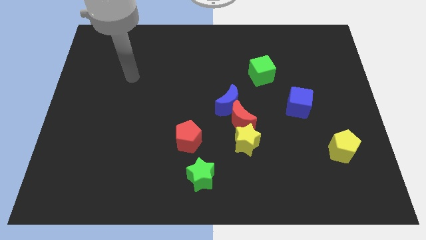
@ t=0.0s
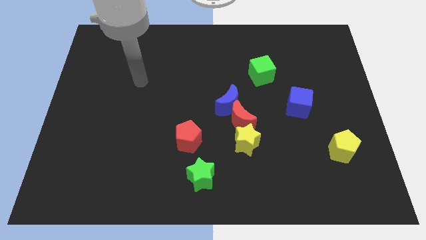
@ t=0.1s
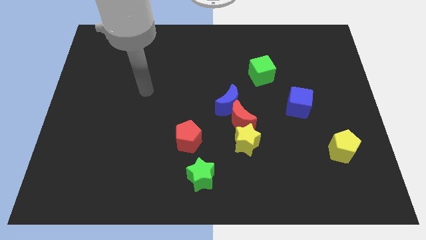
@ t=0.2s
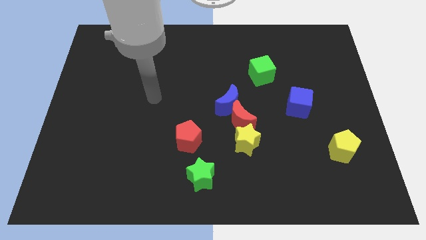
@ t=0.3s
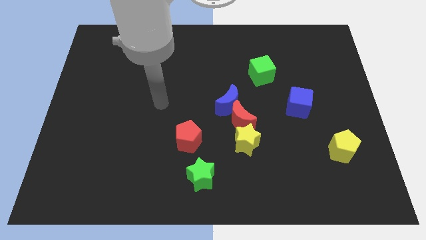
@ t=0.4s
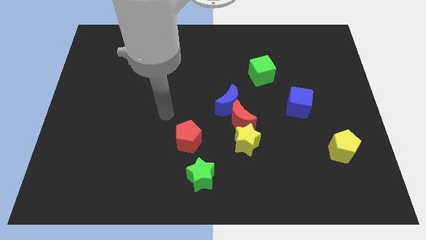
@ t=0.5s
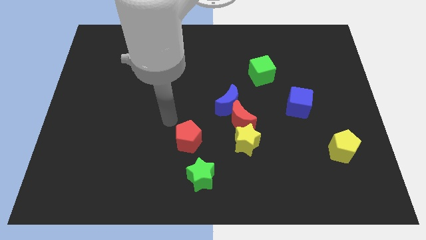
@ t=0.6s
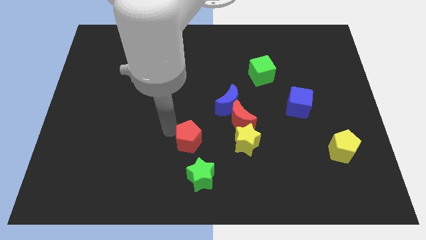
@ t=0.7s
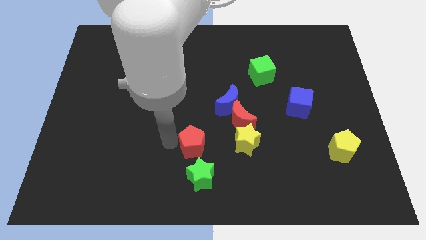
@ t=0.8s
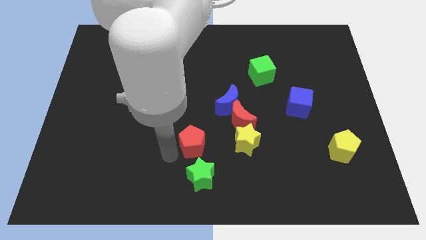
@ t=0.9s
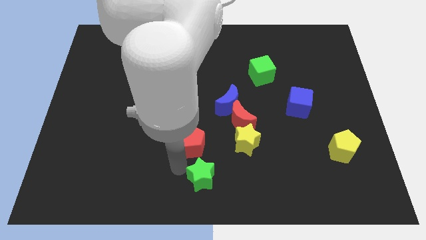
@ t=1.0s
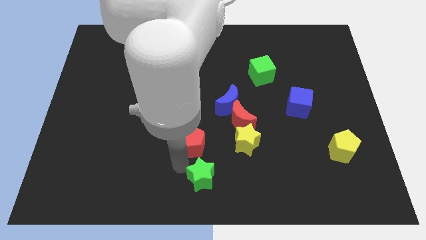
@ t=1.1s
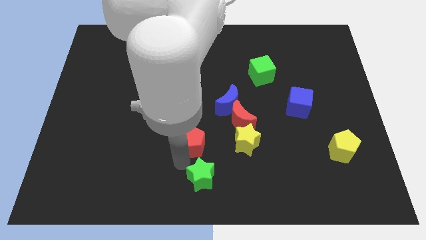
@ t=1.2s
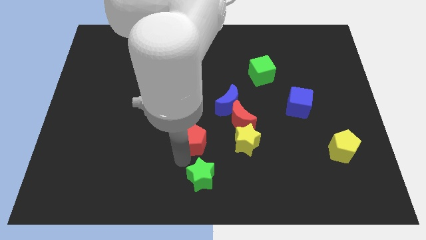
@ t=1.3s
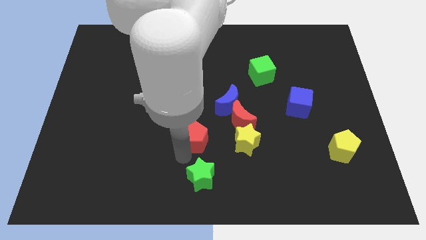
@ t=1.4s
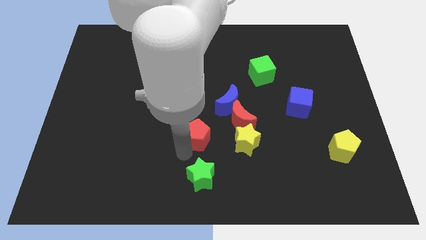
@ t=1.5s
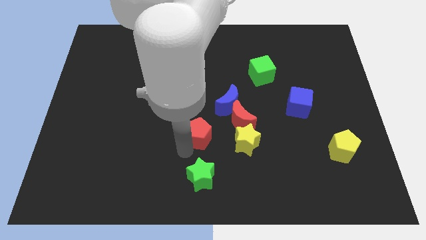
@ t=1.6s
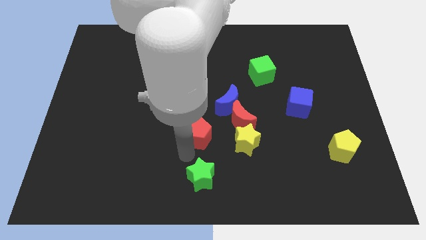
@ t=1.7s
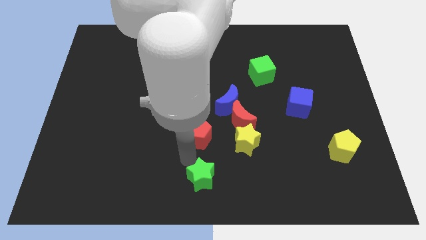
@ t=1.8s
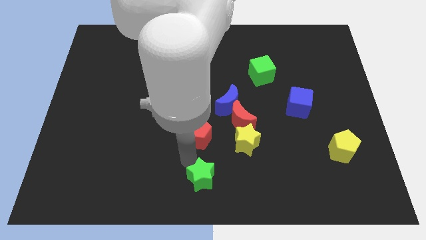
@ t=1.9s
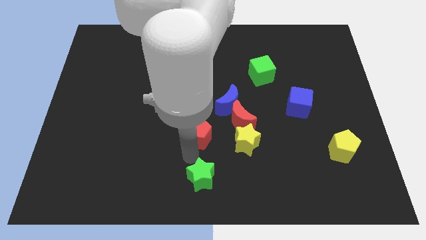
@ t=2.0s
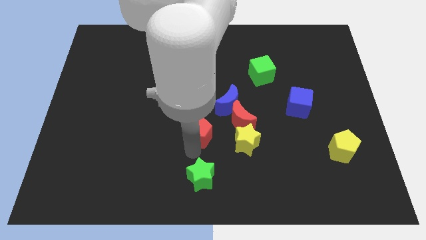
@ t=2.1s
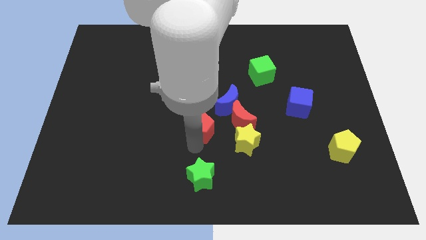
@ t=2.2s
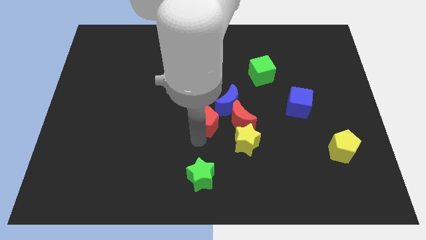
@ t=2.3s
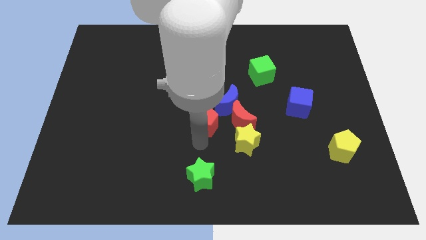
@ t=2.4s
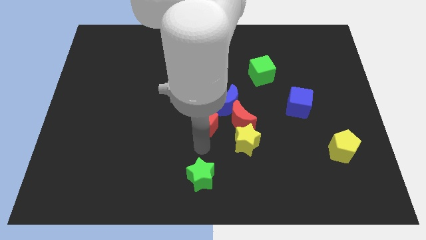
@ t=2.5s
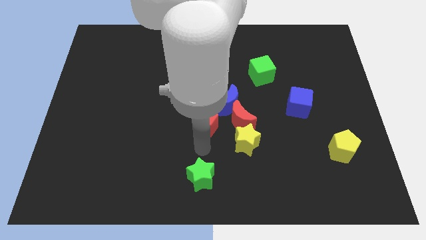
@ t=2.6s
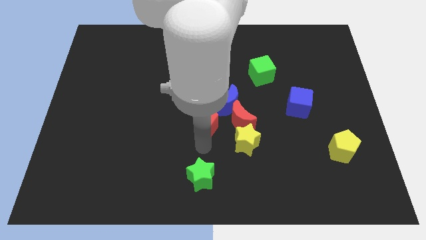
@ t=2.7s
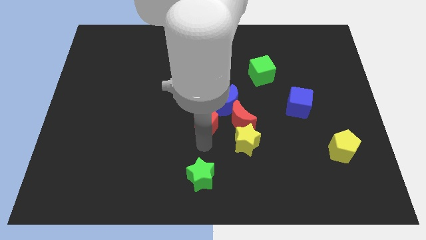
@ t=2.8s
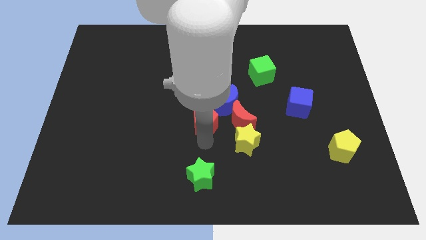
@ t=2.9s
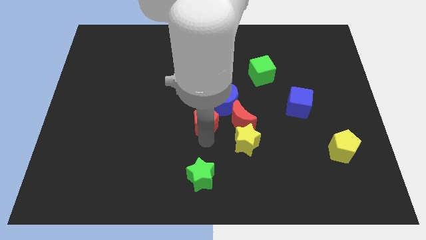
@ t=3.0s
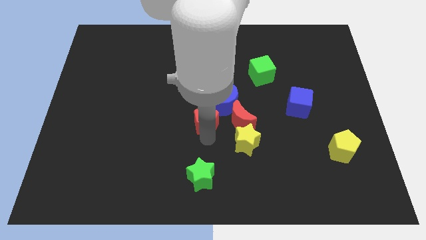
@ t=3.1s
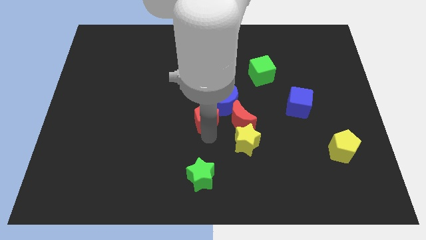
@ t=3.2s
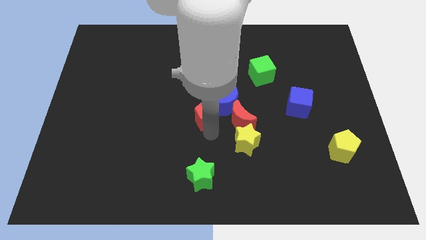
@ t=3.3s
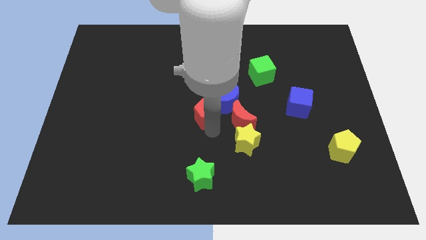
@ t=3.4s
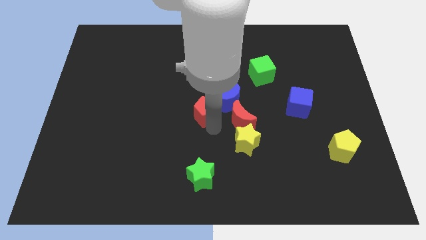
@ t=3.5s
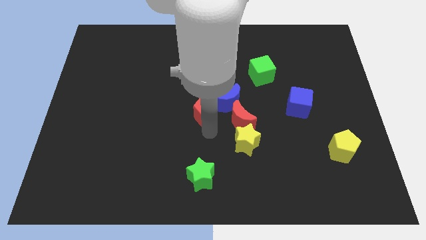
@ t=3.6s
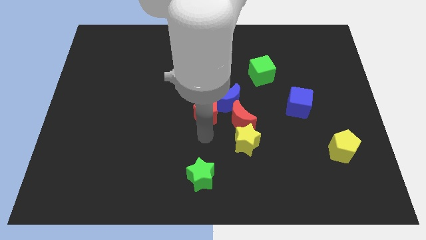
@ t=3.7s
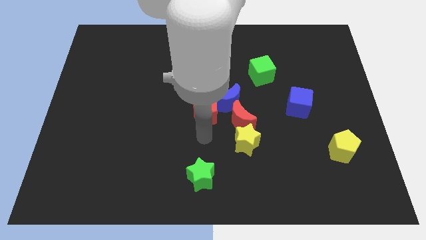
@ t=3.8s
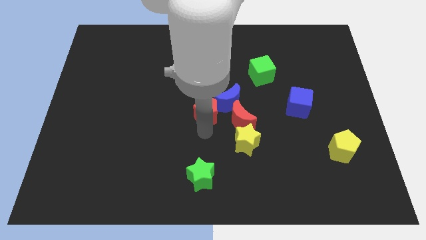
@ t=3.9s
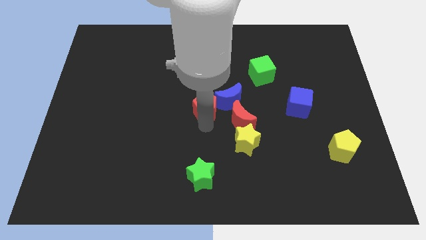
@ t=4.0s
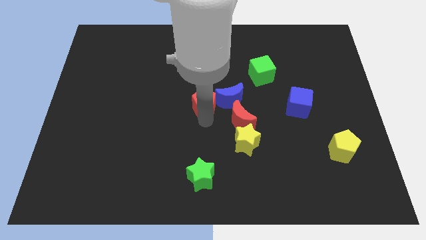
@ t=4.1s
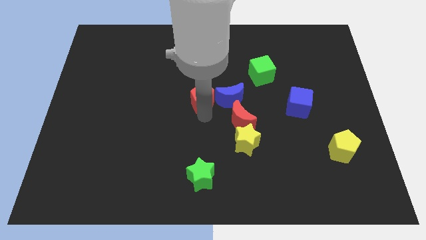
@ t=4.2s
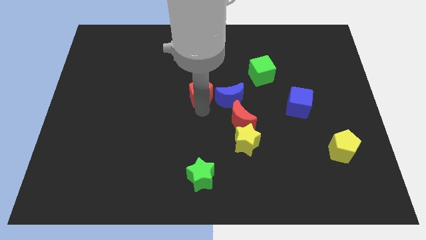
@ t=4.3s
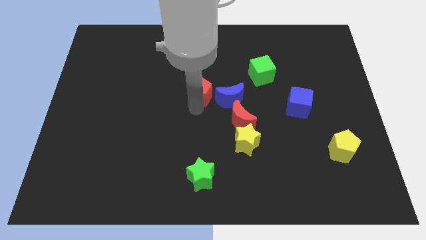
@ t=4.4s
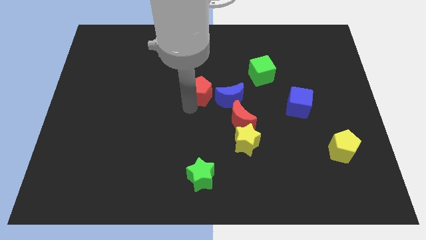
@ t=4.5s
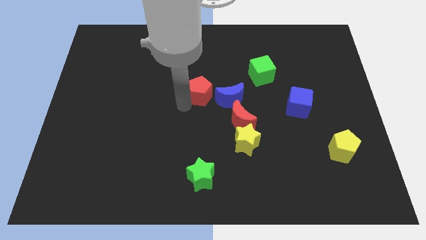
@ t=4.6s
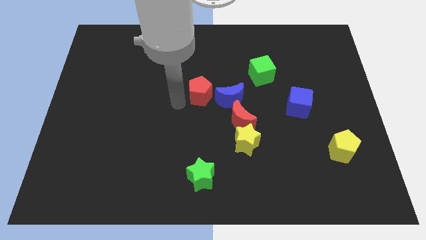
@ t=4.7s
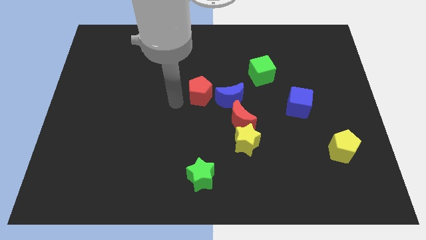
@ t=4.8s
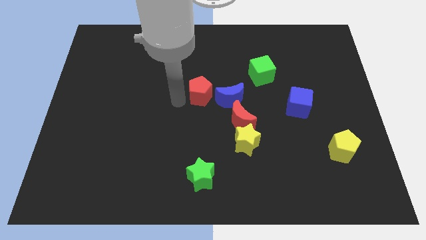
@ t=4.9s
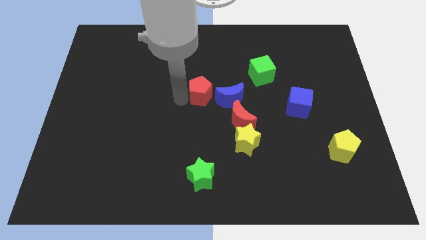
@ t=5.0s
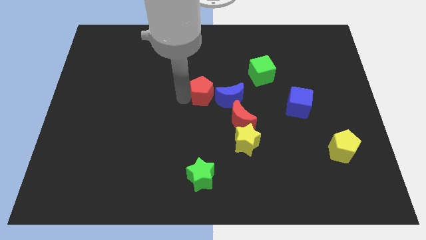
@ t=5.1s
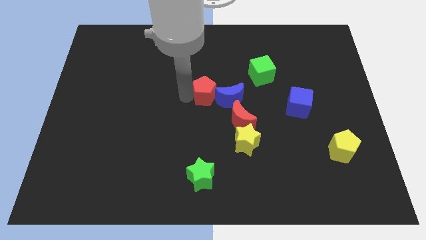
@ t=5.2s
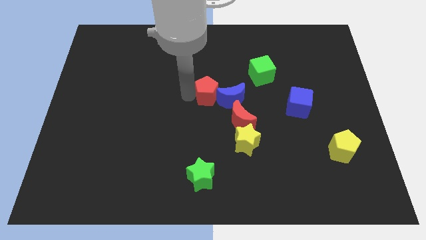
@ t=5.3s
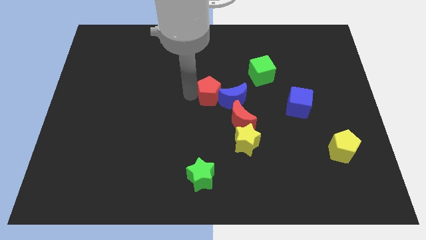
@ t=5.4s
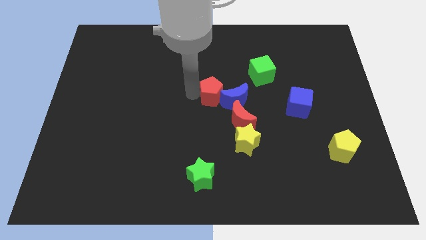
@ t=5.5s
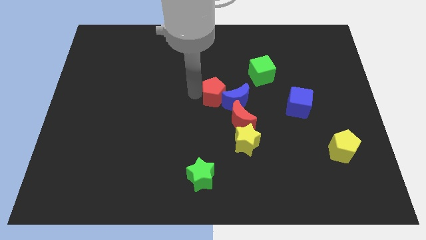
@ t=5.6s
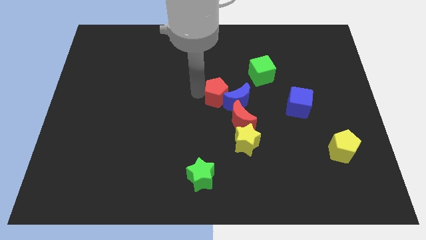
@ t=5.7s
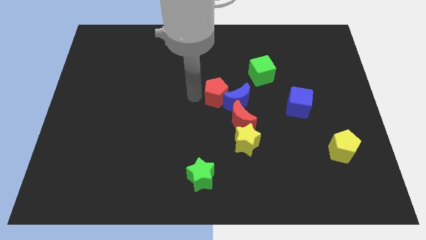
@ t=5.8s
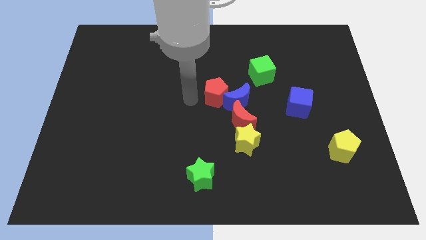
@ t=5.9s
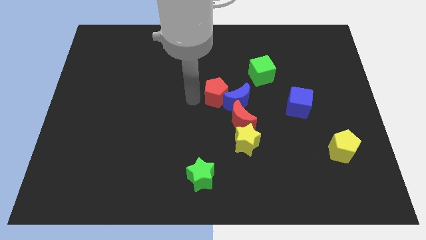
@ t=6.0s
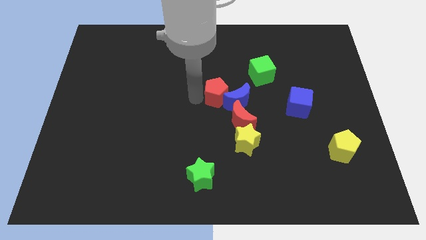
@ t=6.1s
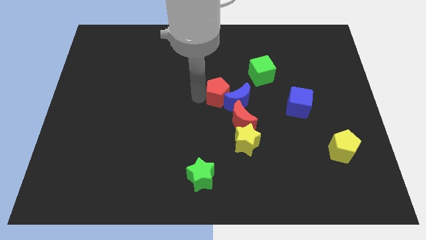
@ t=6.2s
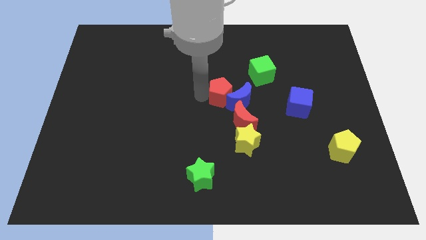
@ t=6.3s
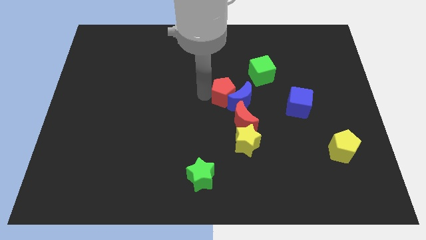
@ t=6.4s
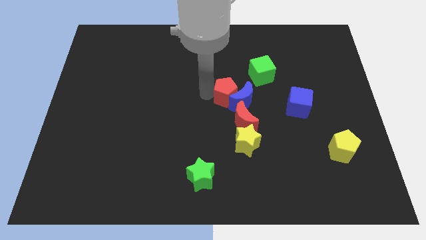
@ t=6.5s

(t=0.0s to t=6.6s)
push the red pentagon to the top of the yellow star
